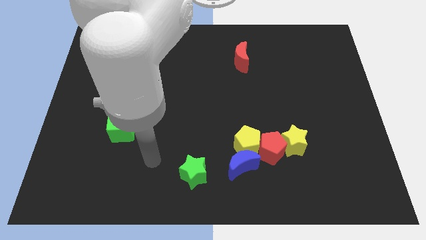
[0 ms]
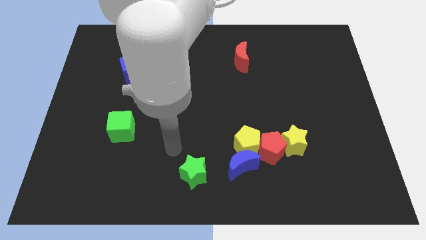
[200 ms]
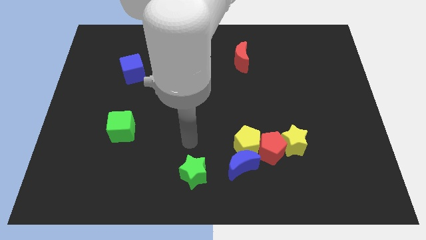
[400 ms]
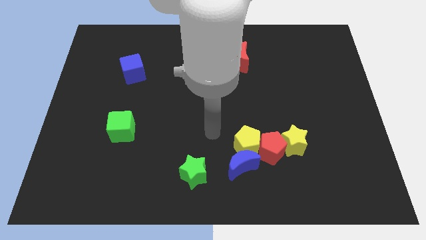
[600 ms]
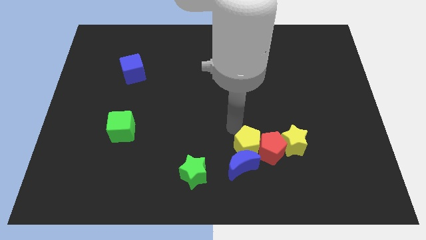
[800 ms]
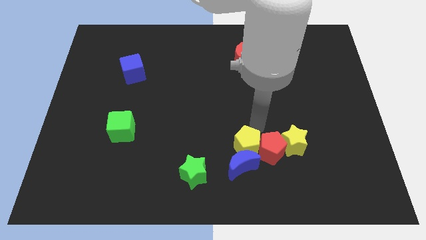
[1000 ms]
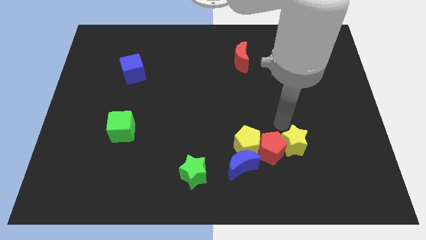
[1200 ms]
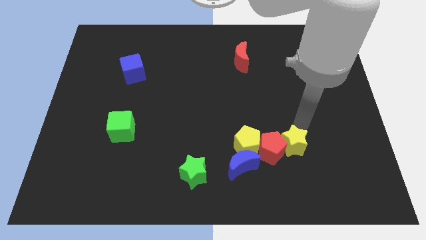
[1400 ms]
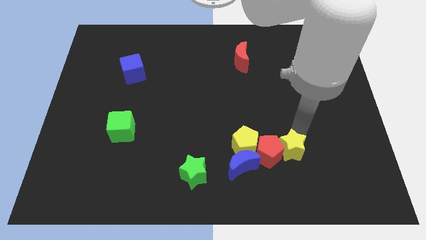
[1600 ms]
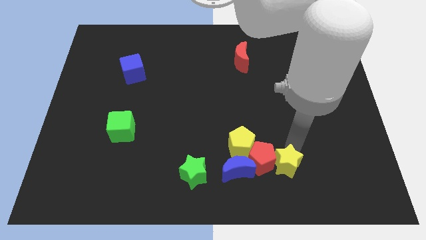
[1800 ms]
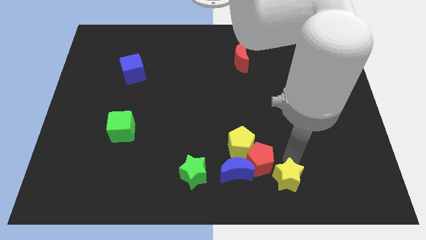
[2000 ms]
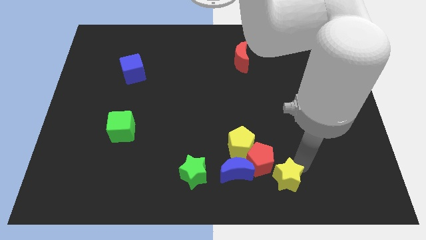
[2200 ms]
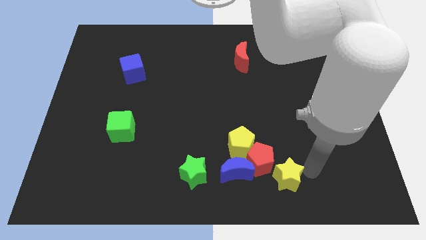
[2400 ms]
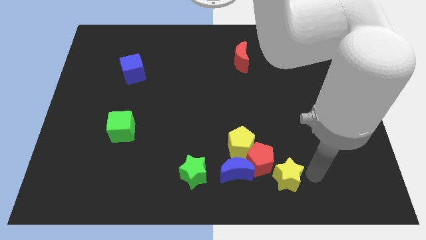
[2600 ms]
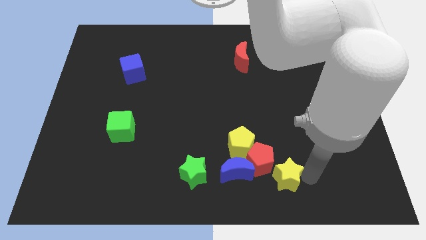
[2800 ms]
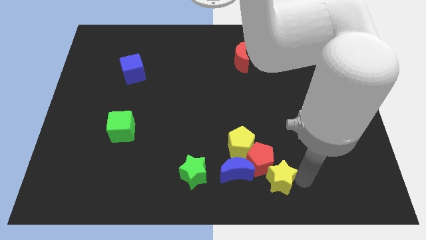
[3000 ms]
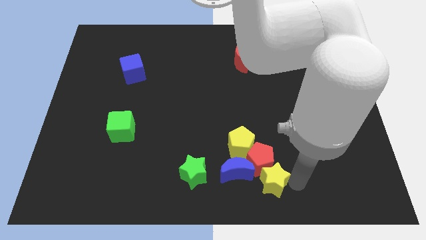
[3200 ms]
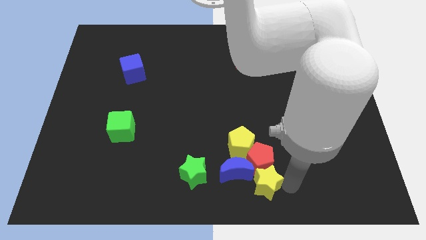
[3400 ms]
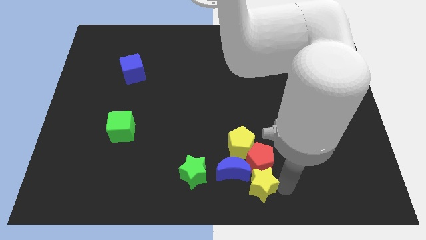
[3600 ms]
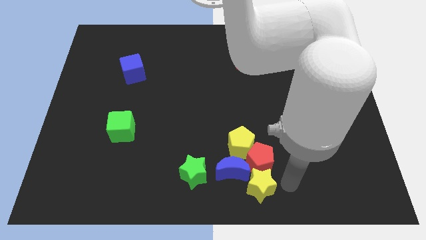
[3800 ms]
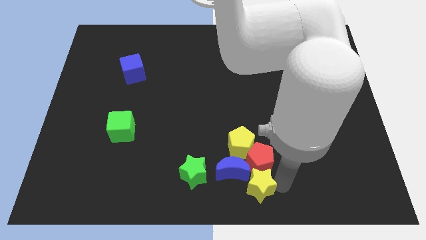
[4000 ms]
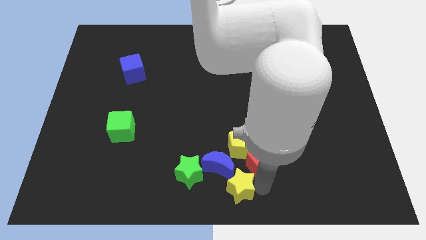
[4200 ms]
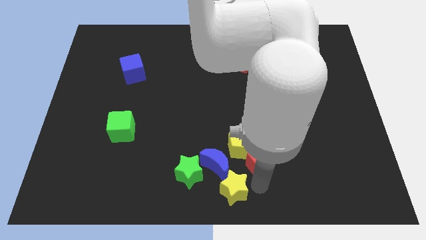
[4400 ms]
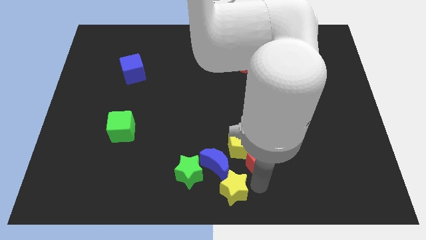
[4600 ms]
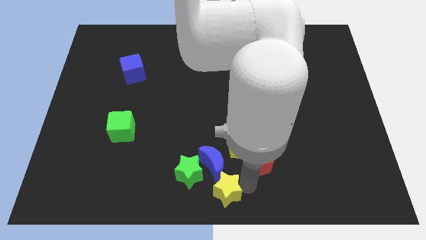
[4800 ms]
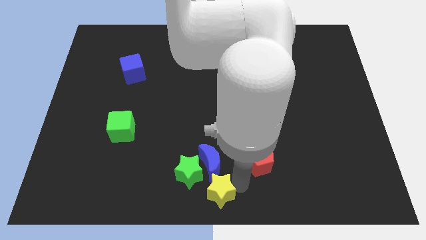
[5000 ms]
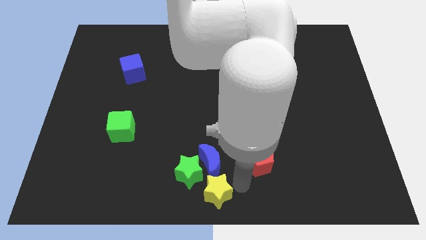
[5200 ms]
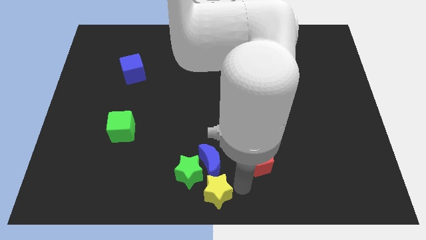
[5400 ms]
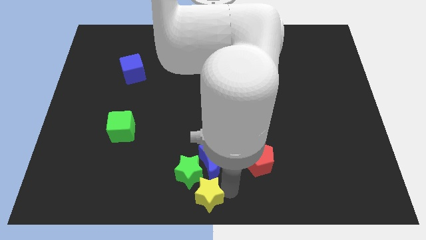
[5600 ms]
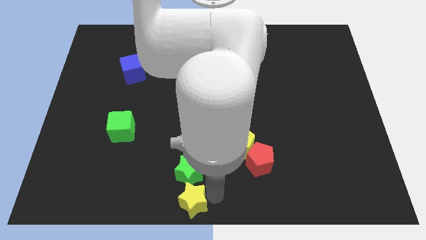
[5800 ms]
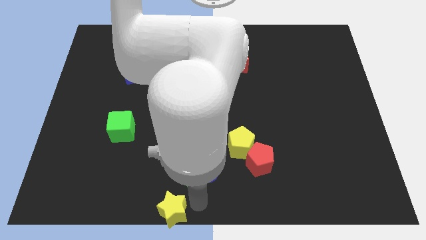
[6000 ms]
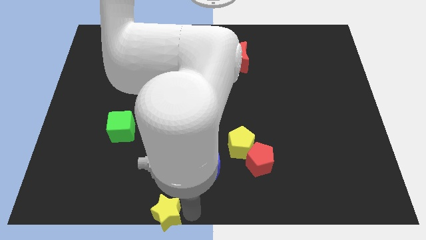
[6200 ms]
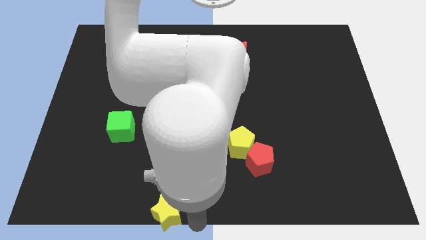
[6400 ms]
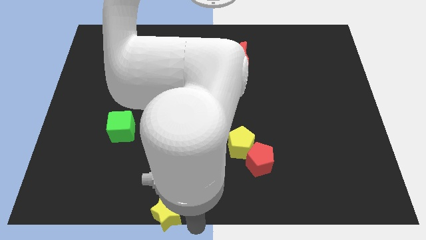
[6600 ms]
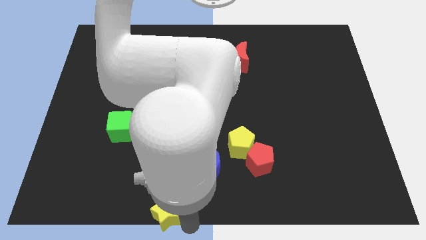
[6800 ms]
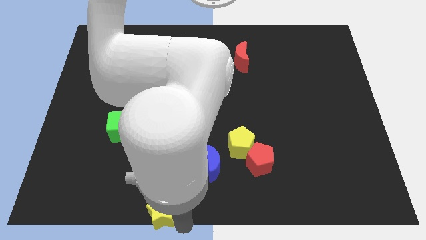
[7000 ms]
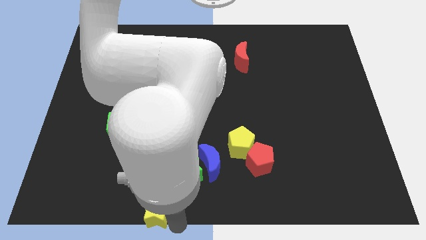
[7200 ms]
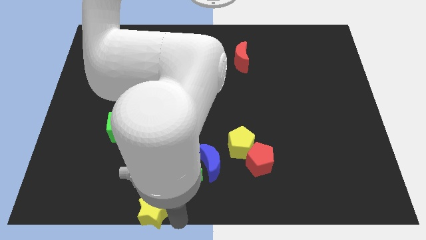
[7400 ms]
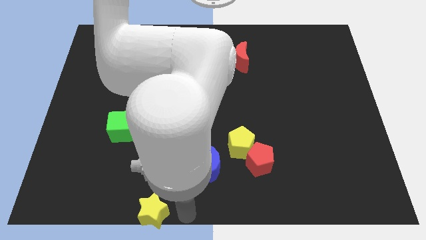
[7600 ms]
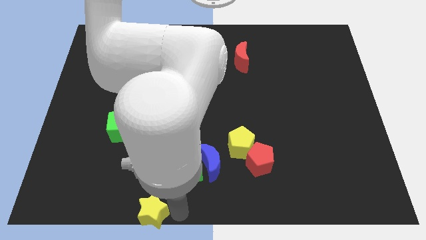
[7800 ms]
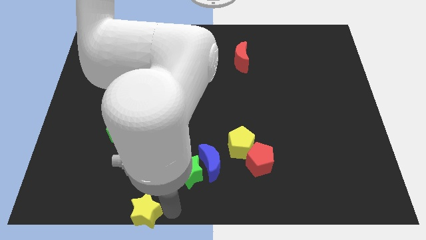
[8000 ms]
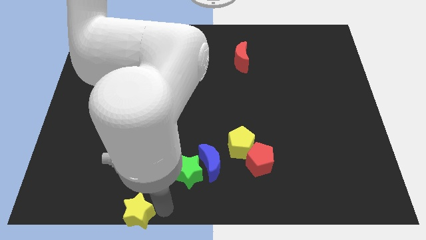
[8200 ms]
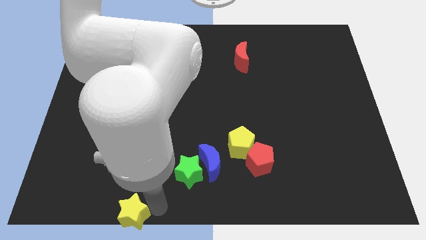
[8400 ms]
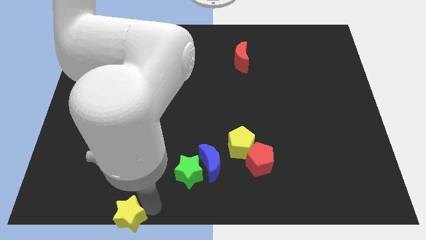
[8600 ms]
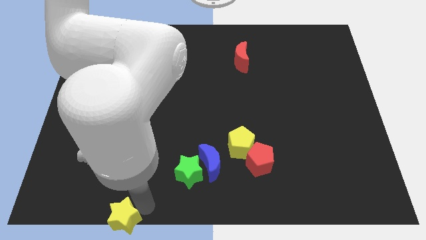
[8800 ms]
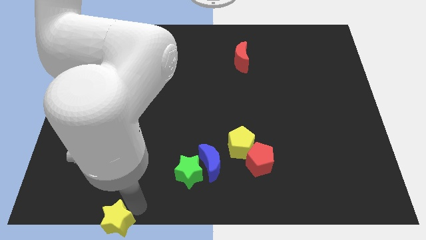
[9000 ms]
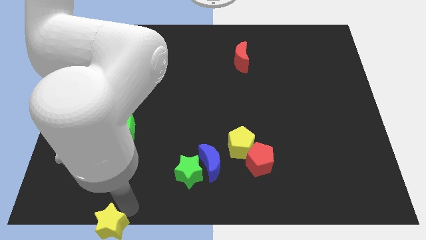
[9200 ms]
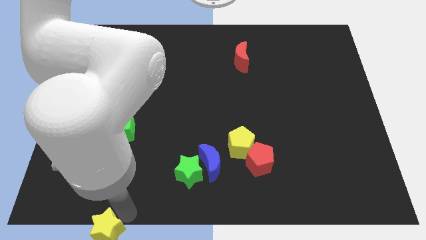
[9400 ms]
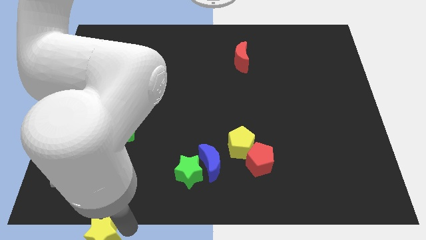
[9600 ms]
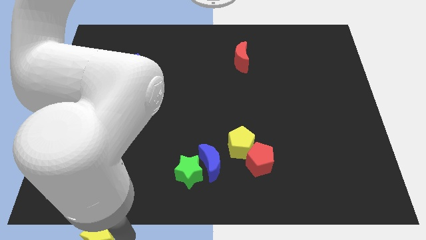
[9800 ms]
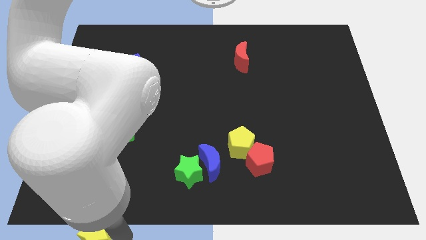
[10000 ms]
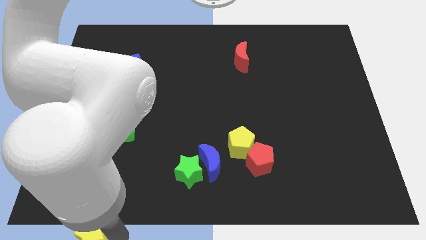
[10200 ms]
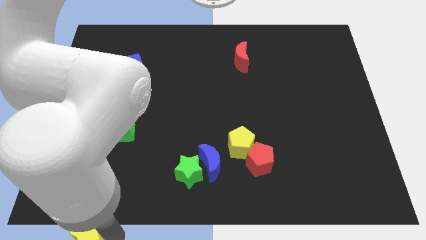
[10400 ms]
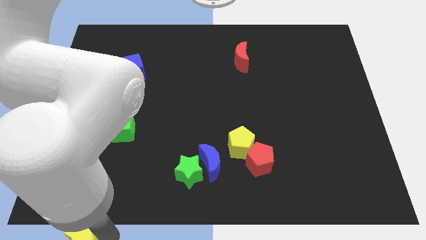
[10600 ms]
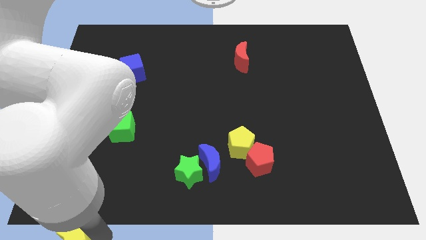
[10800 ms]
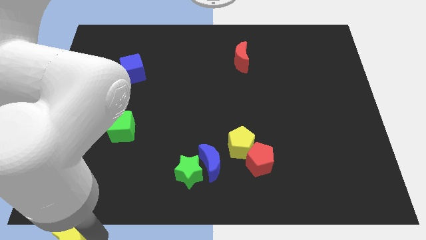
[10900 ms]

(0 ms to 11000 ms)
move the yellow star to the bottom left of the board

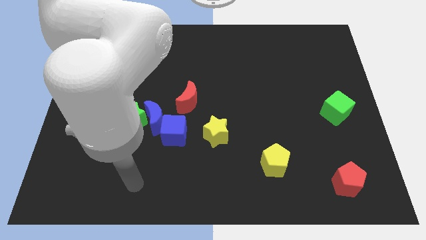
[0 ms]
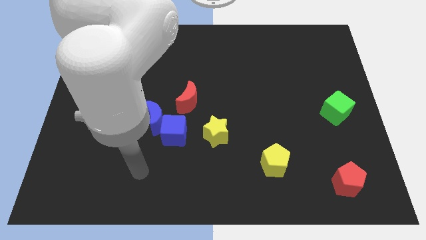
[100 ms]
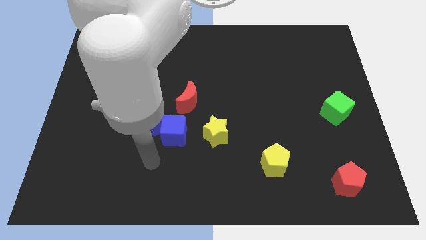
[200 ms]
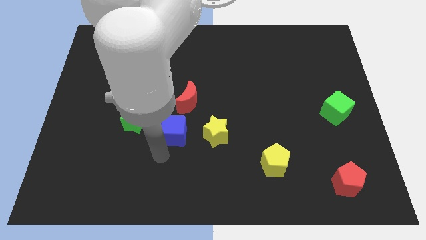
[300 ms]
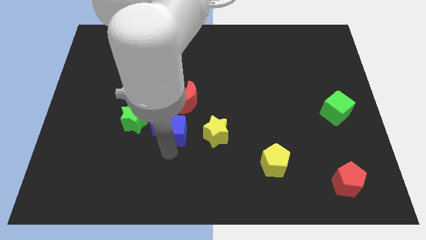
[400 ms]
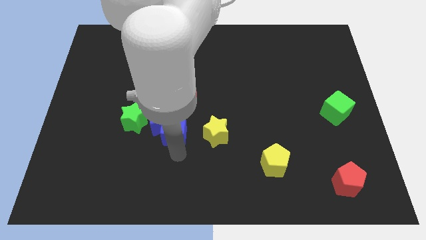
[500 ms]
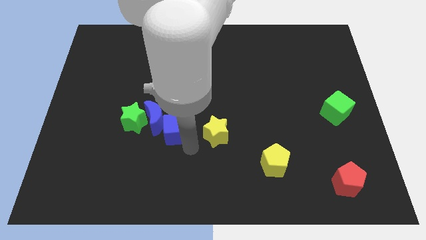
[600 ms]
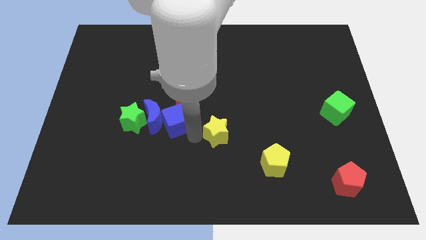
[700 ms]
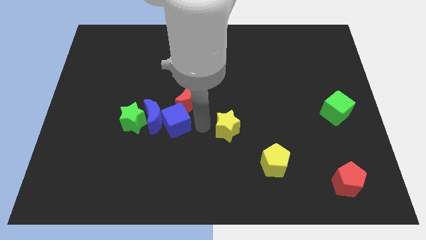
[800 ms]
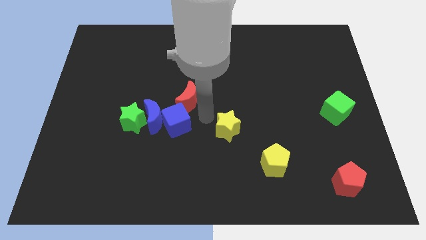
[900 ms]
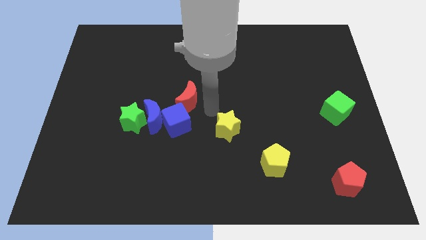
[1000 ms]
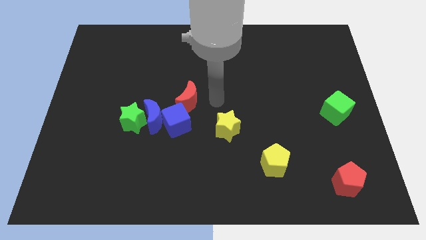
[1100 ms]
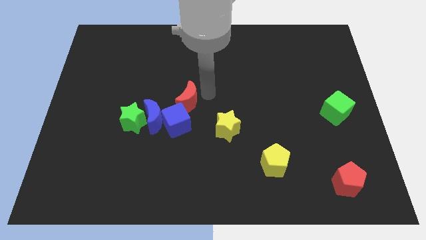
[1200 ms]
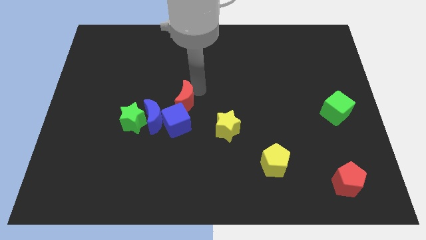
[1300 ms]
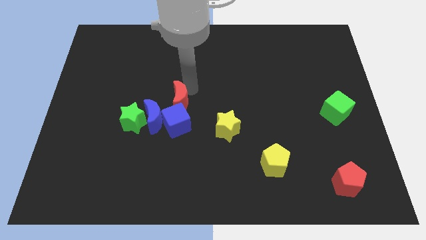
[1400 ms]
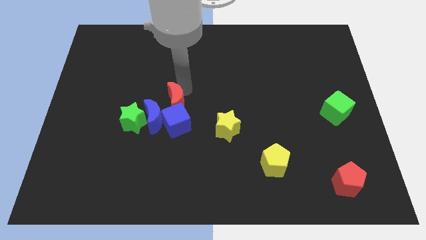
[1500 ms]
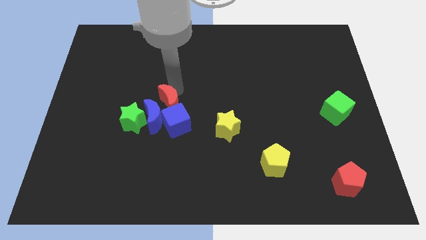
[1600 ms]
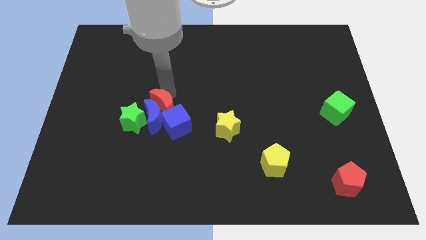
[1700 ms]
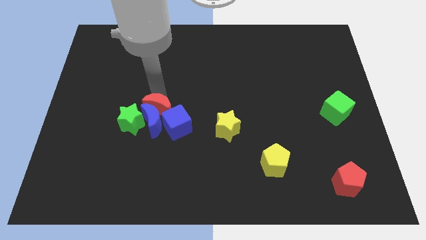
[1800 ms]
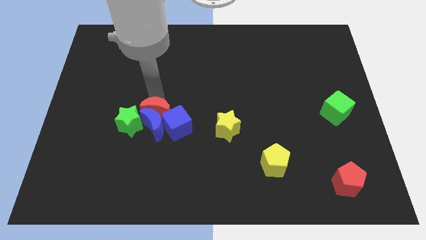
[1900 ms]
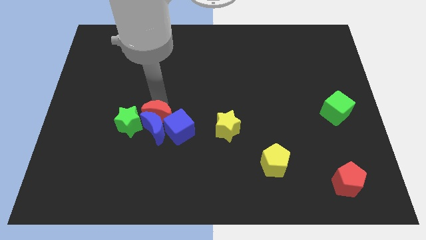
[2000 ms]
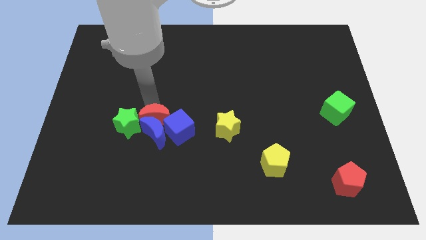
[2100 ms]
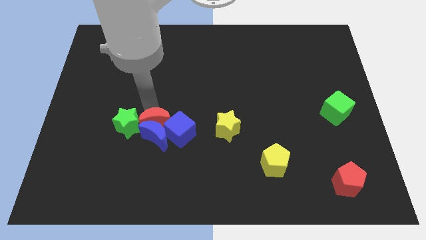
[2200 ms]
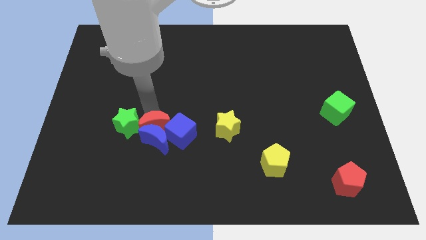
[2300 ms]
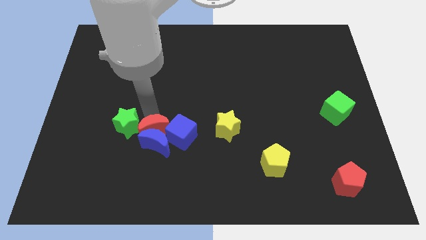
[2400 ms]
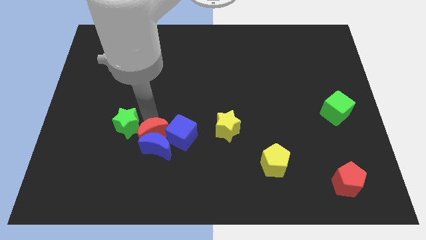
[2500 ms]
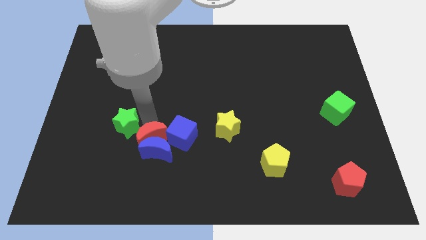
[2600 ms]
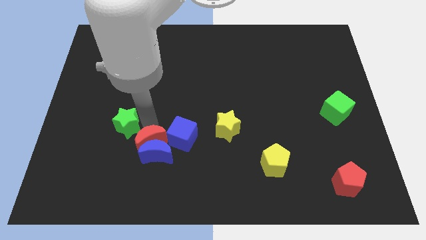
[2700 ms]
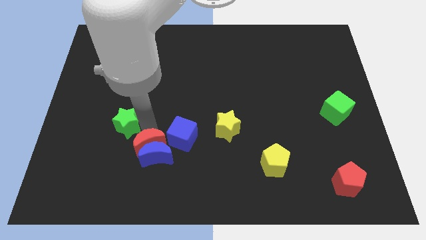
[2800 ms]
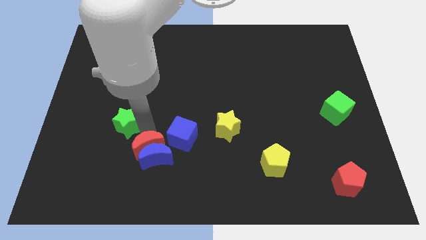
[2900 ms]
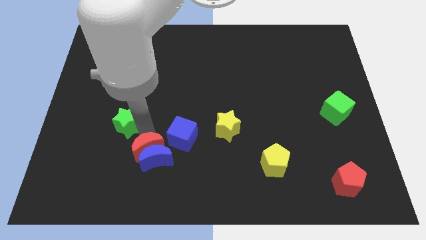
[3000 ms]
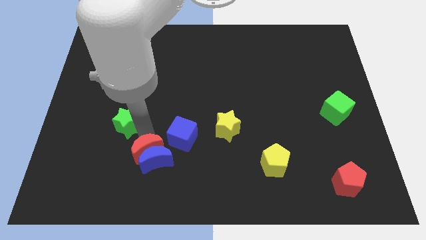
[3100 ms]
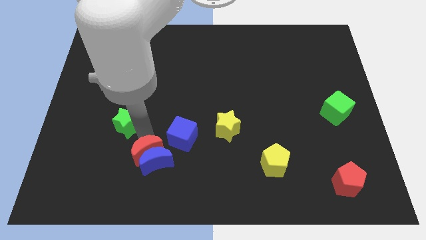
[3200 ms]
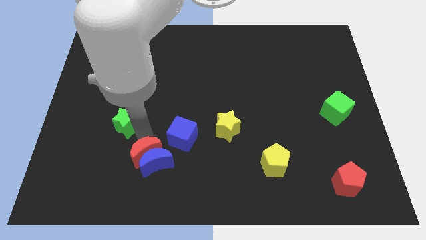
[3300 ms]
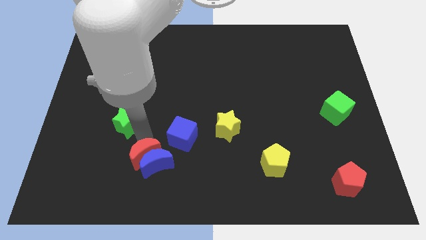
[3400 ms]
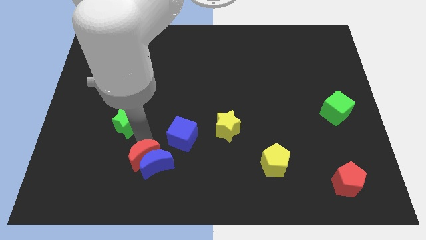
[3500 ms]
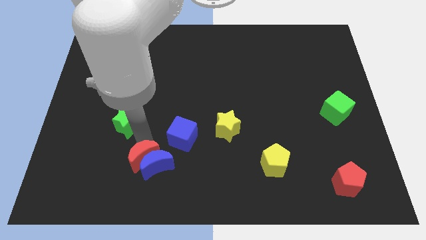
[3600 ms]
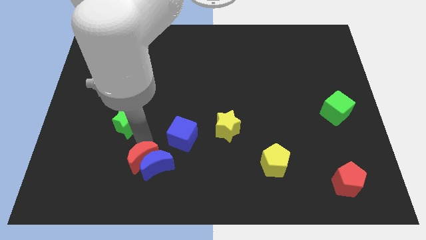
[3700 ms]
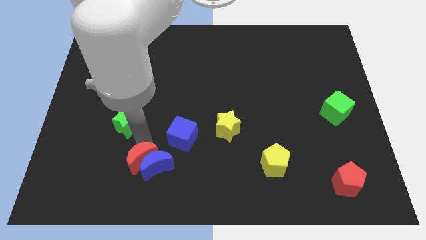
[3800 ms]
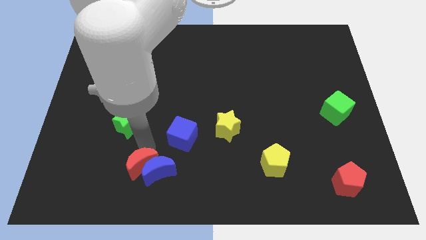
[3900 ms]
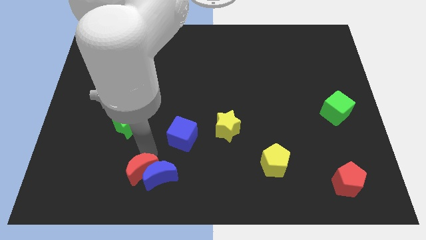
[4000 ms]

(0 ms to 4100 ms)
put the blue moon to the bottom
